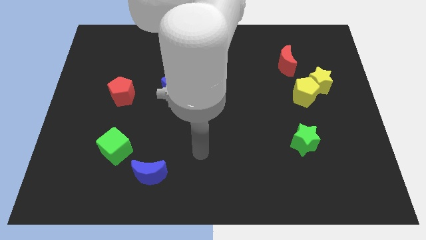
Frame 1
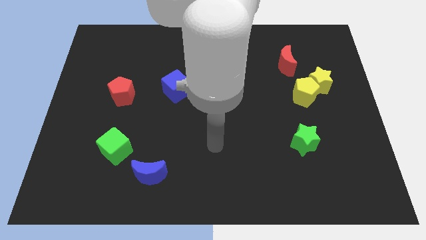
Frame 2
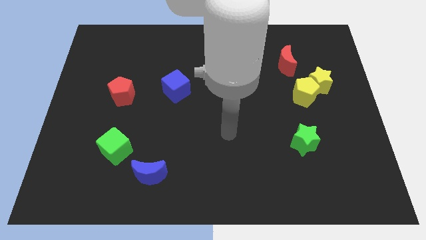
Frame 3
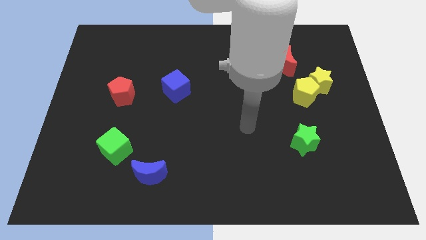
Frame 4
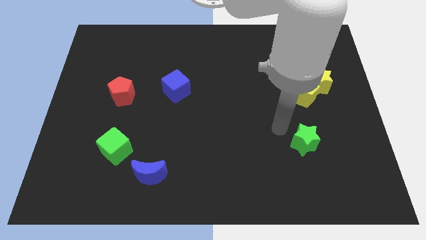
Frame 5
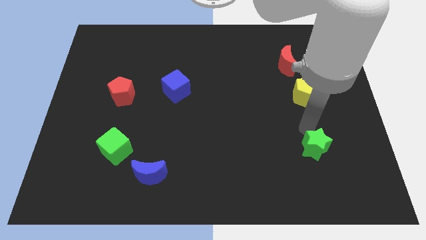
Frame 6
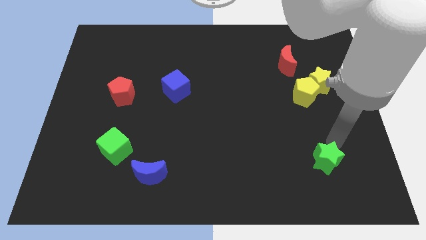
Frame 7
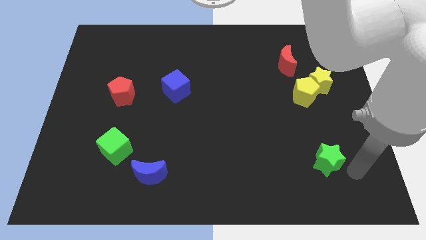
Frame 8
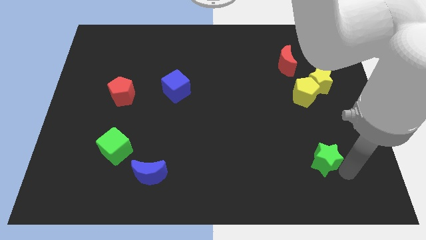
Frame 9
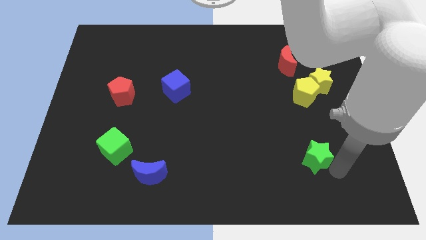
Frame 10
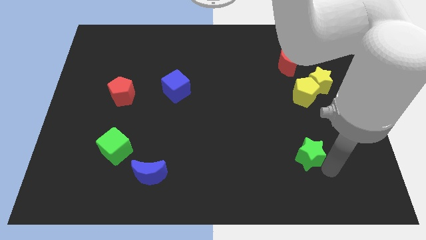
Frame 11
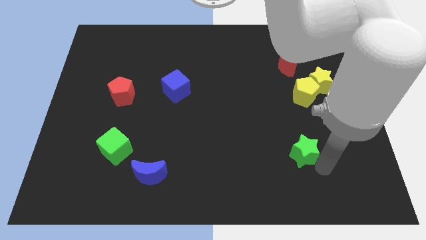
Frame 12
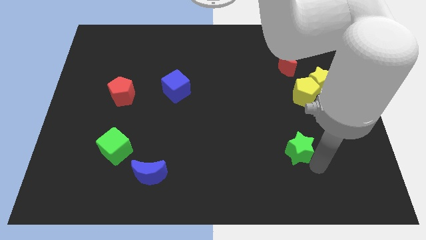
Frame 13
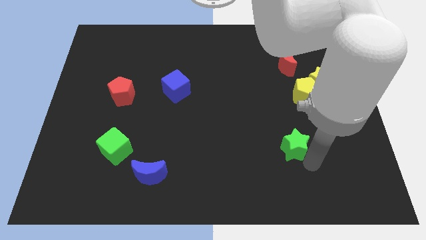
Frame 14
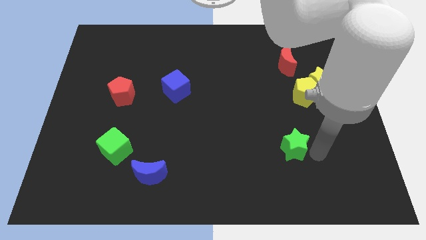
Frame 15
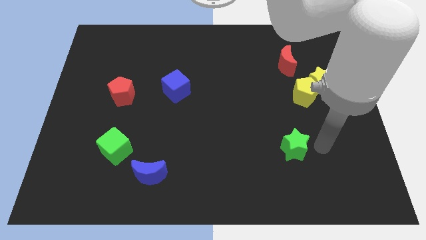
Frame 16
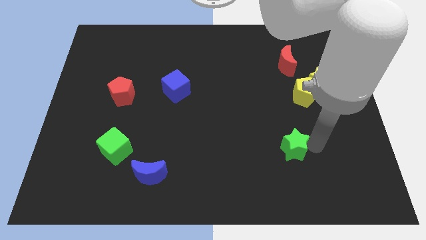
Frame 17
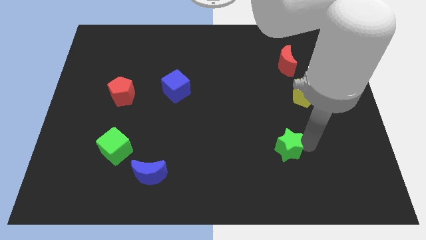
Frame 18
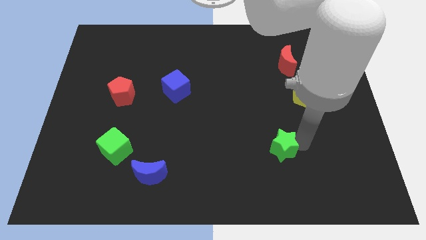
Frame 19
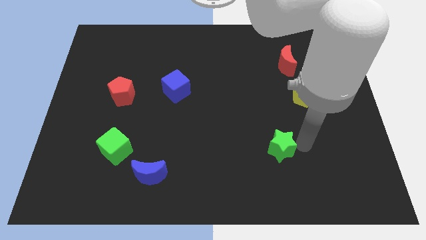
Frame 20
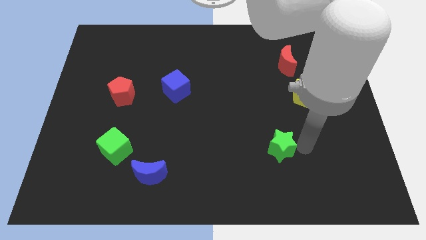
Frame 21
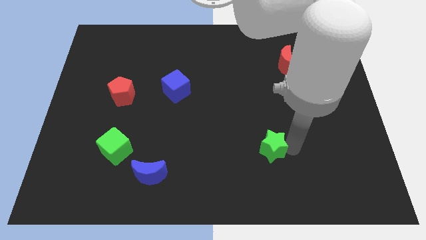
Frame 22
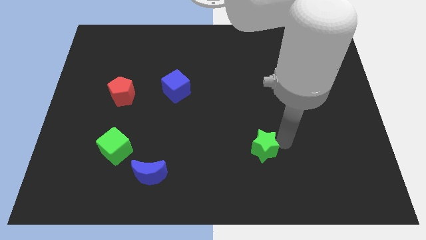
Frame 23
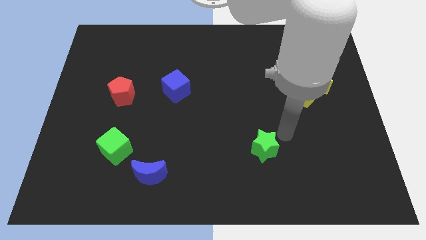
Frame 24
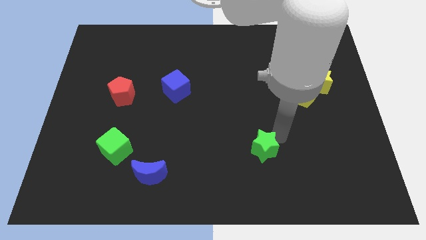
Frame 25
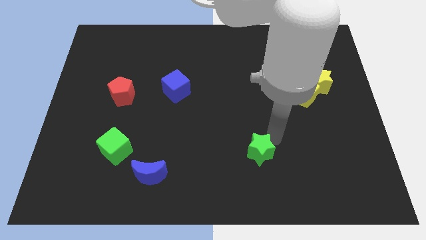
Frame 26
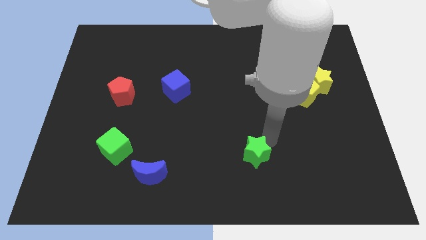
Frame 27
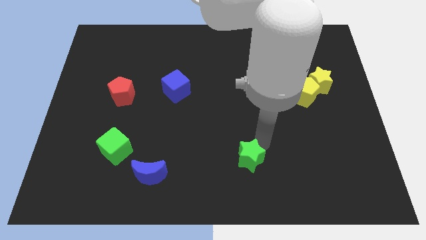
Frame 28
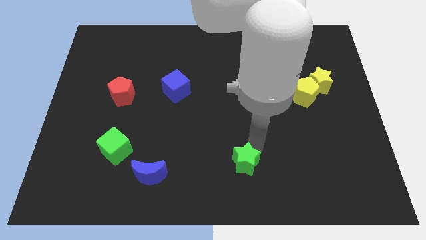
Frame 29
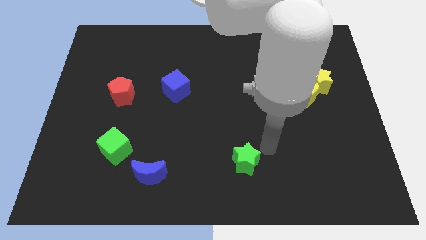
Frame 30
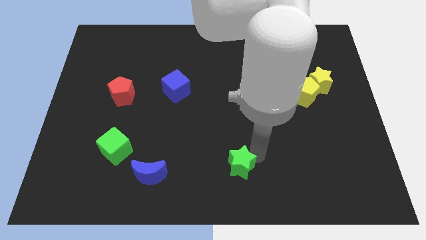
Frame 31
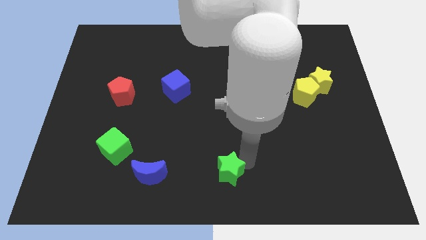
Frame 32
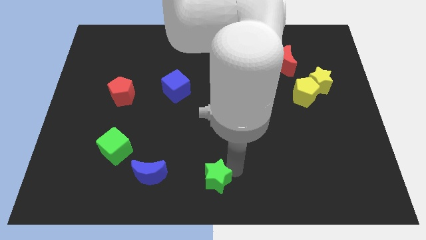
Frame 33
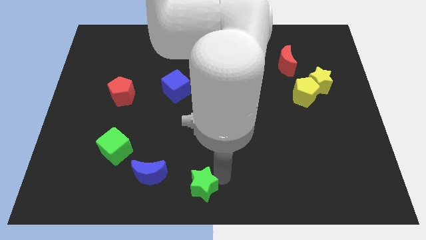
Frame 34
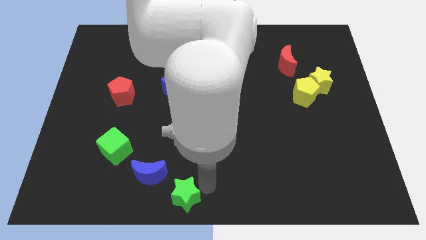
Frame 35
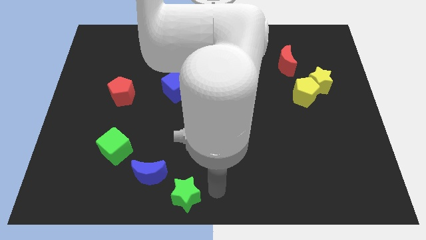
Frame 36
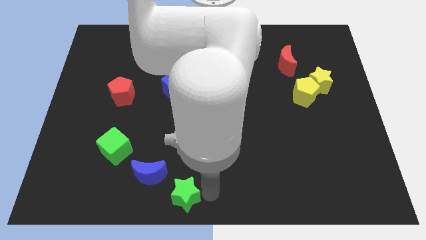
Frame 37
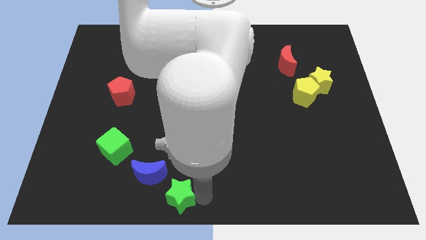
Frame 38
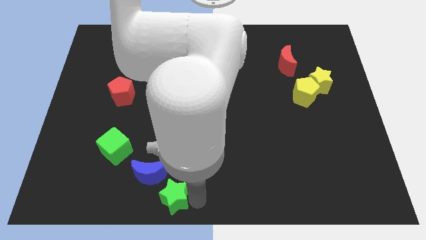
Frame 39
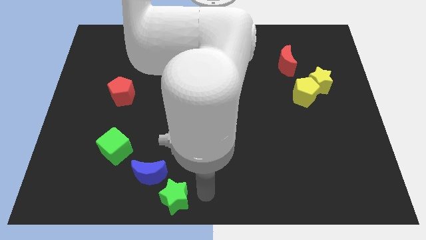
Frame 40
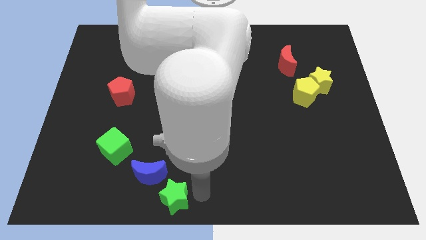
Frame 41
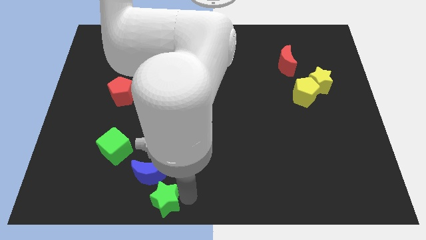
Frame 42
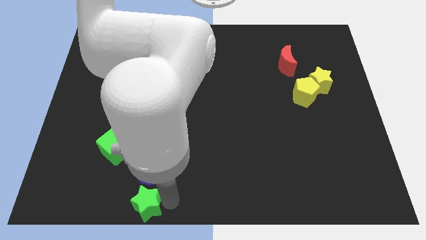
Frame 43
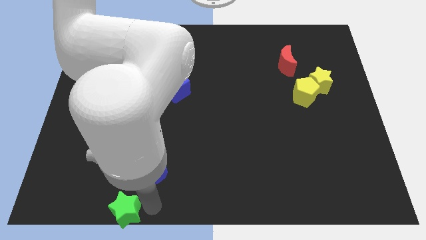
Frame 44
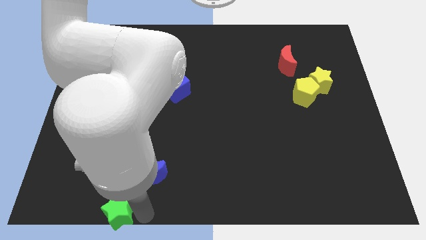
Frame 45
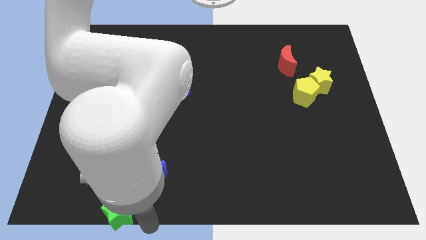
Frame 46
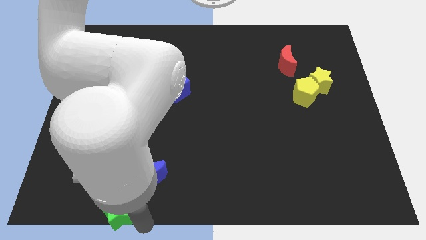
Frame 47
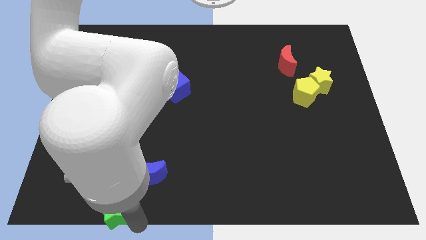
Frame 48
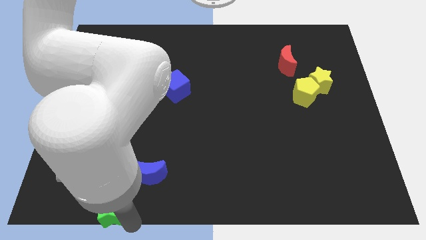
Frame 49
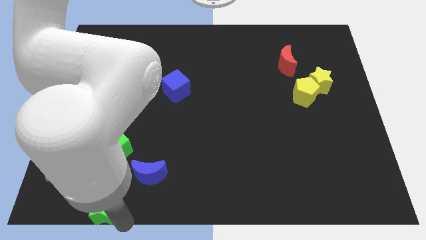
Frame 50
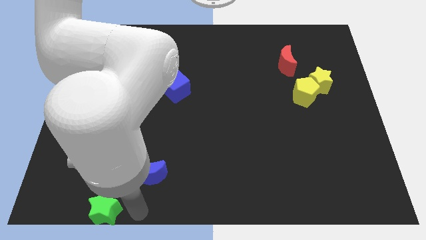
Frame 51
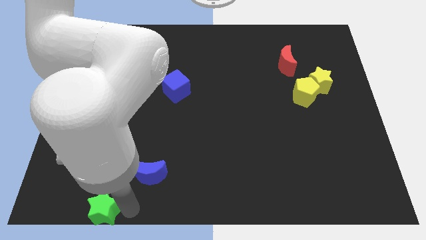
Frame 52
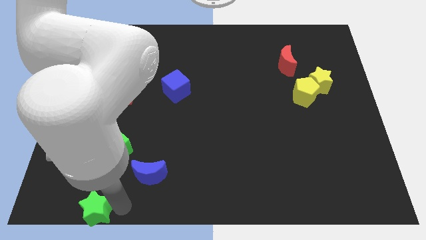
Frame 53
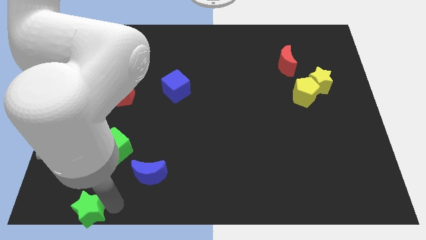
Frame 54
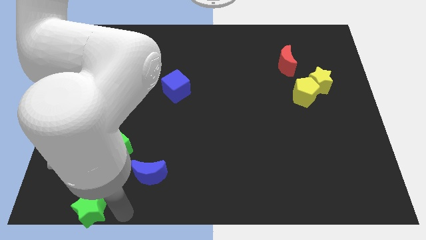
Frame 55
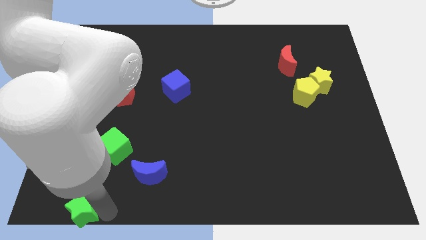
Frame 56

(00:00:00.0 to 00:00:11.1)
push the green star to the bottom left of the board

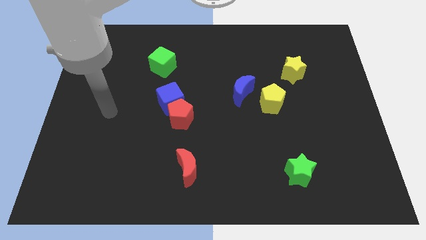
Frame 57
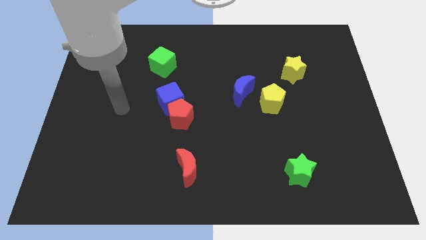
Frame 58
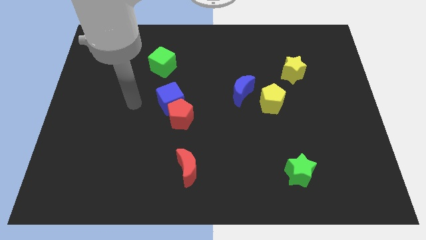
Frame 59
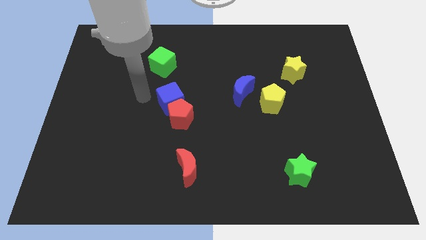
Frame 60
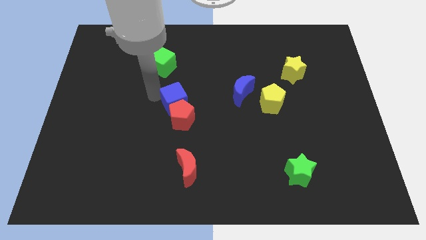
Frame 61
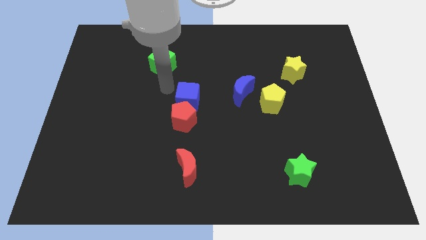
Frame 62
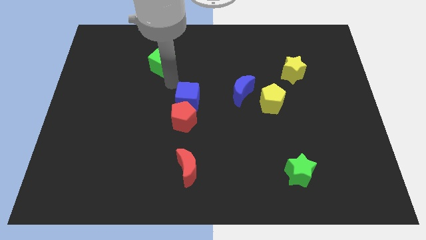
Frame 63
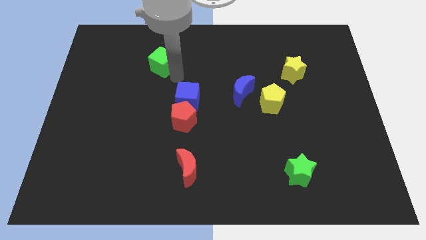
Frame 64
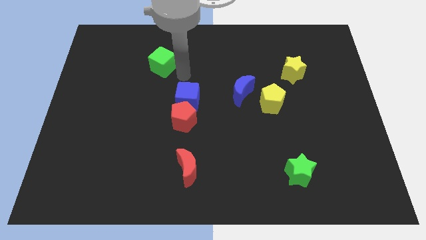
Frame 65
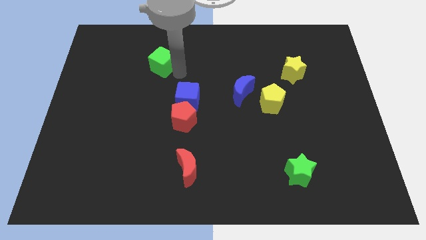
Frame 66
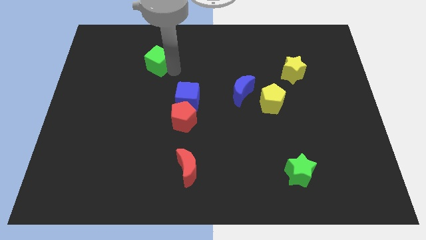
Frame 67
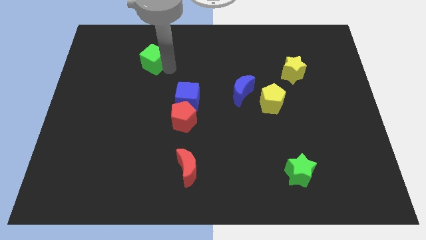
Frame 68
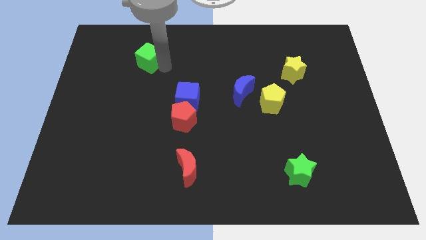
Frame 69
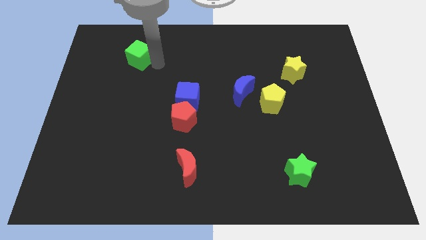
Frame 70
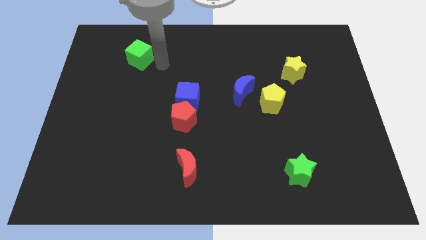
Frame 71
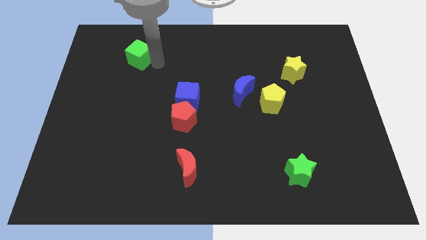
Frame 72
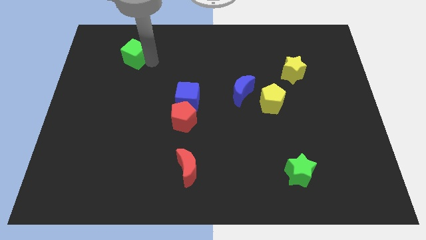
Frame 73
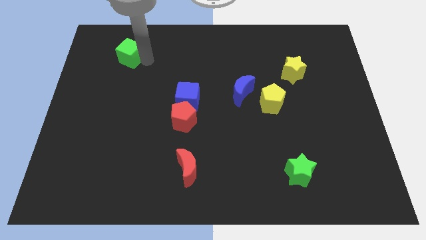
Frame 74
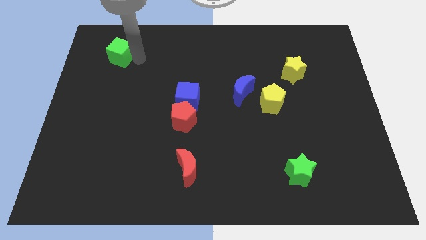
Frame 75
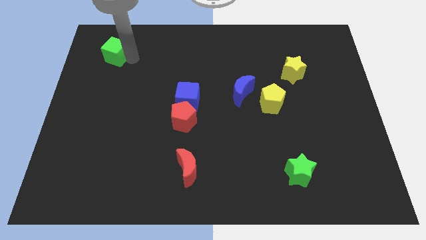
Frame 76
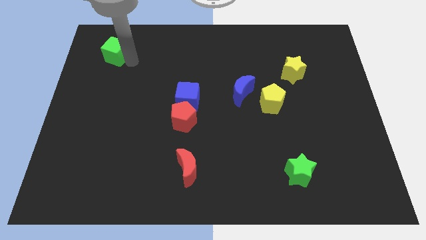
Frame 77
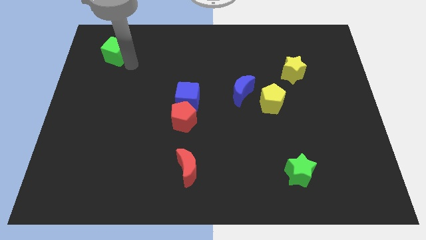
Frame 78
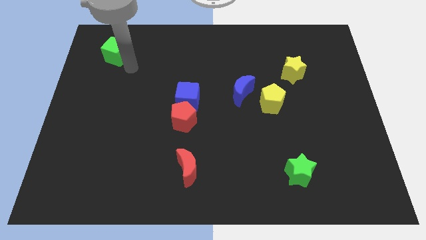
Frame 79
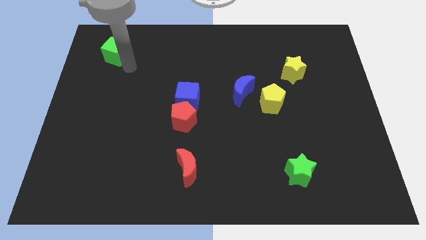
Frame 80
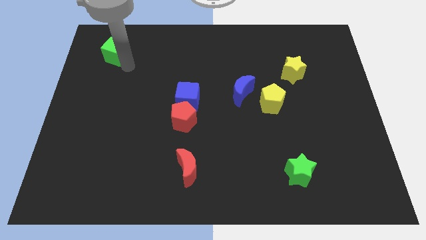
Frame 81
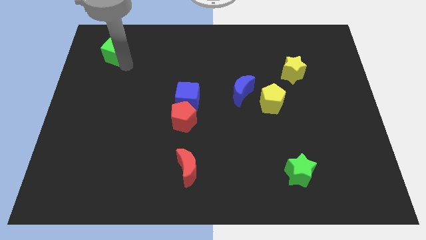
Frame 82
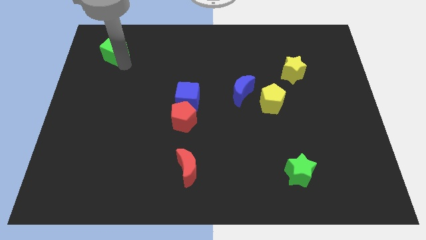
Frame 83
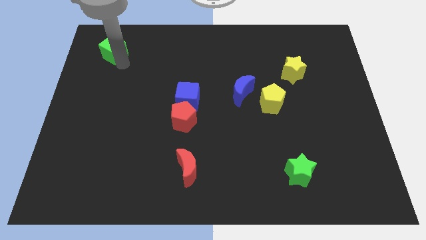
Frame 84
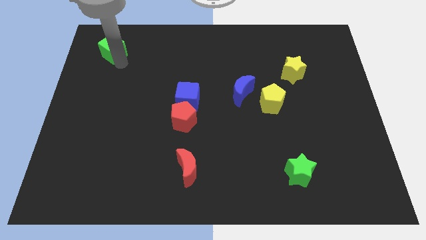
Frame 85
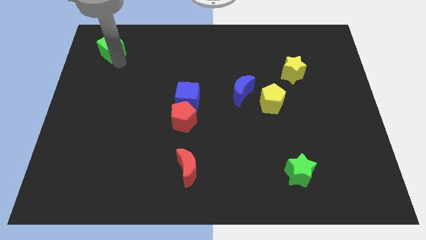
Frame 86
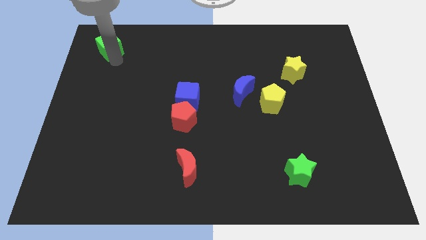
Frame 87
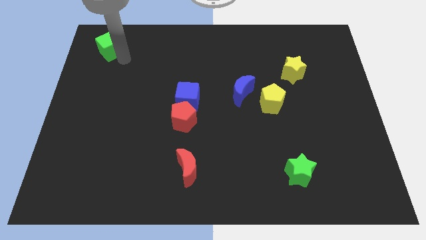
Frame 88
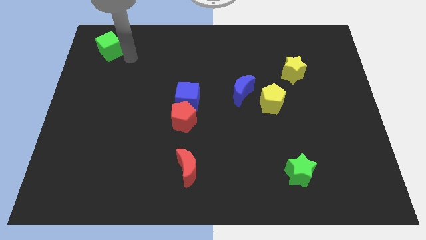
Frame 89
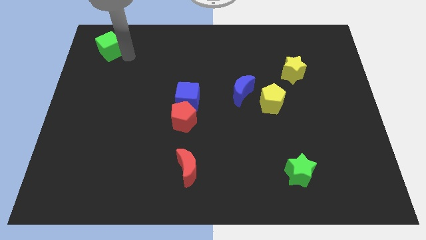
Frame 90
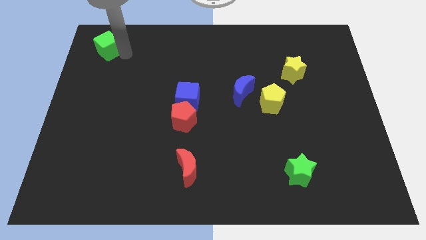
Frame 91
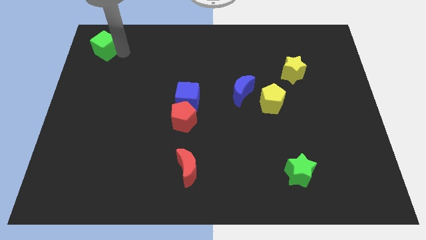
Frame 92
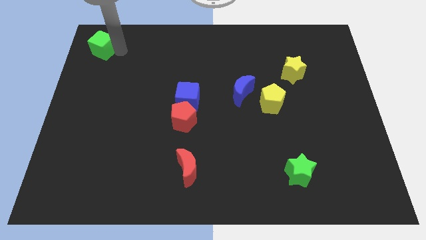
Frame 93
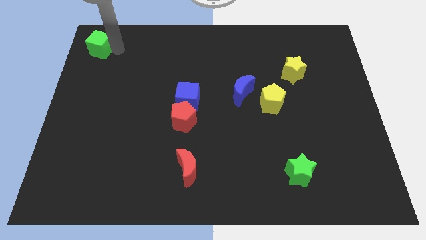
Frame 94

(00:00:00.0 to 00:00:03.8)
move the green cube to the upper left corner
